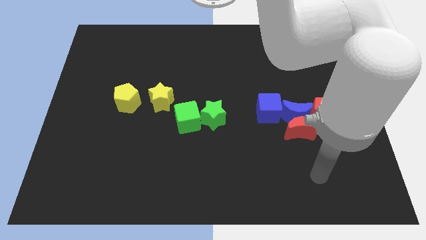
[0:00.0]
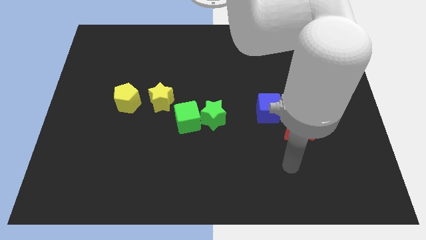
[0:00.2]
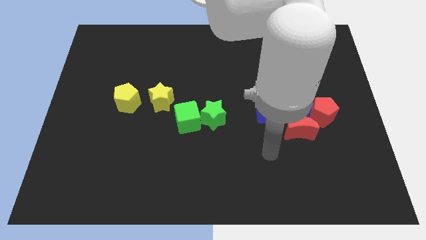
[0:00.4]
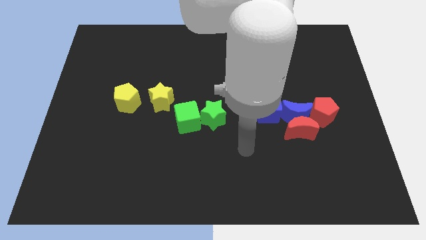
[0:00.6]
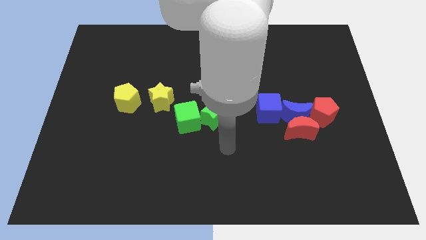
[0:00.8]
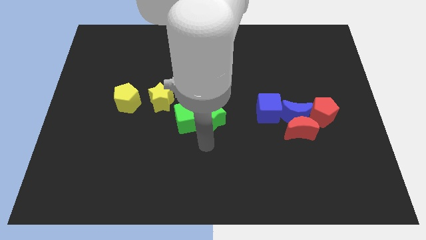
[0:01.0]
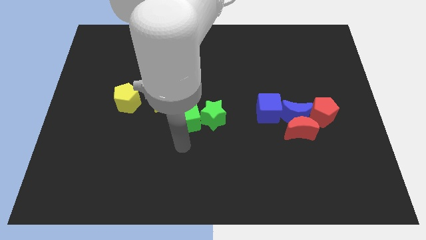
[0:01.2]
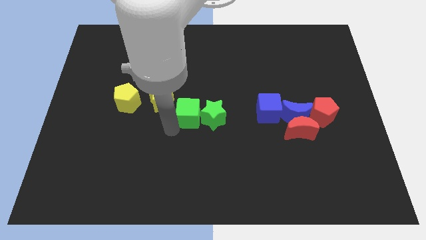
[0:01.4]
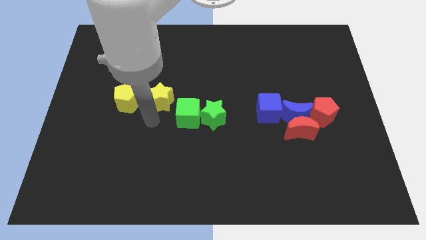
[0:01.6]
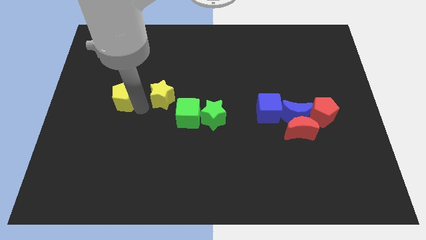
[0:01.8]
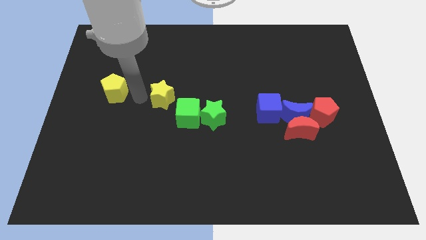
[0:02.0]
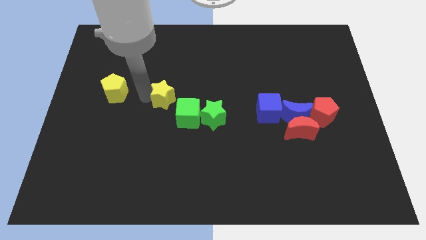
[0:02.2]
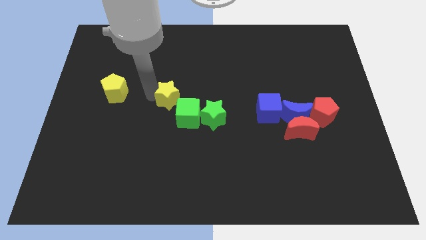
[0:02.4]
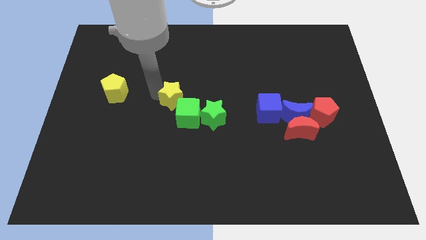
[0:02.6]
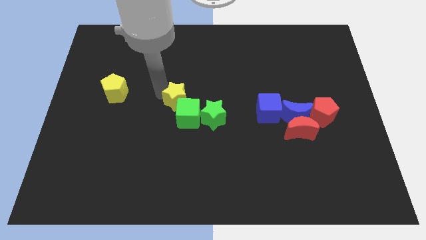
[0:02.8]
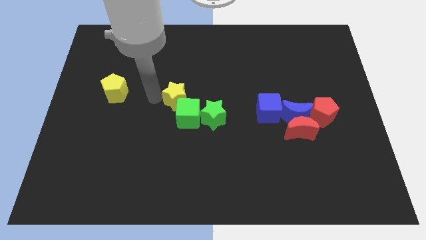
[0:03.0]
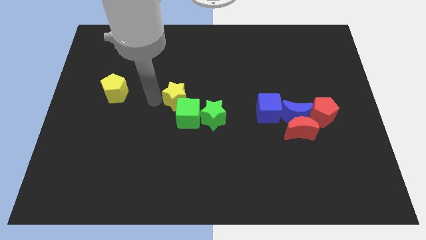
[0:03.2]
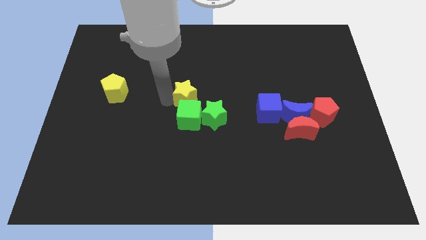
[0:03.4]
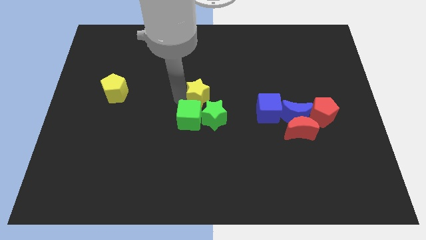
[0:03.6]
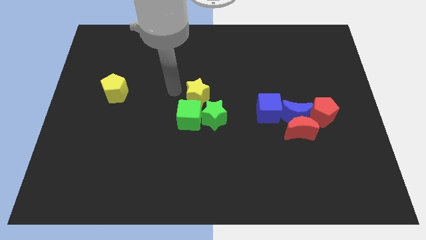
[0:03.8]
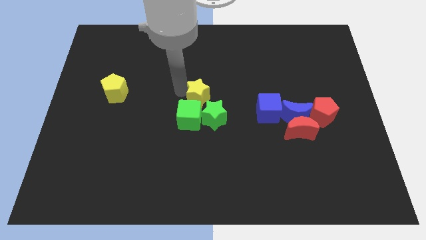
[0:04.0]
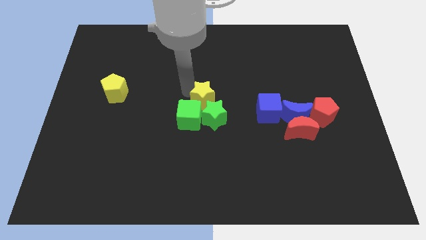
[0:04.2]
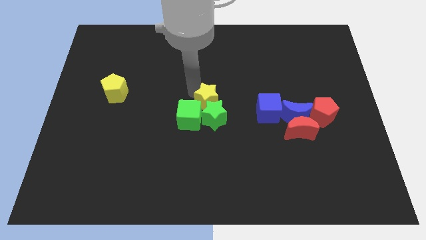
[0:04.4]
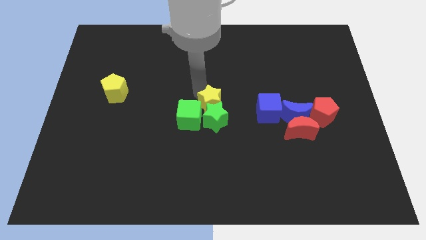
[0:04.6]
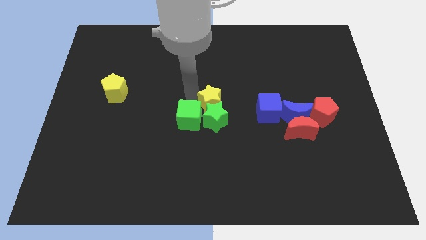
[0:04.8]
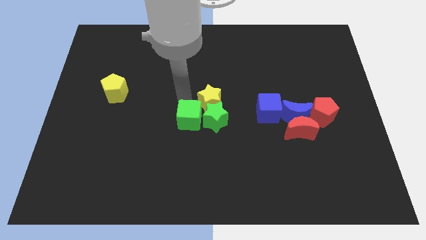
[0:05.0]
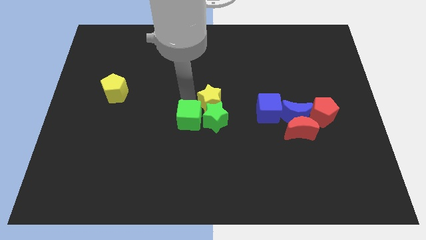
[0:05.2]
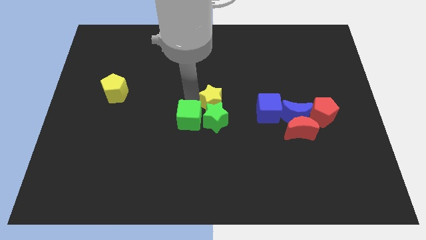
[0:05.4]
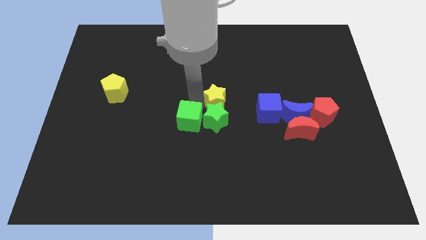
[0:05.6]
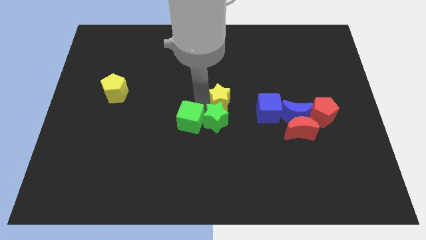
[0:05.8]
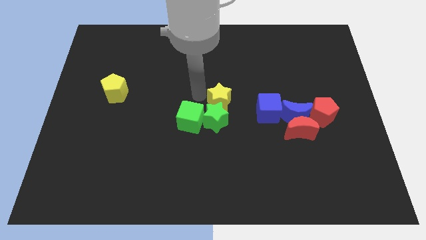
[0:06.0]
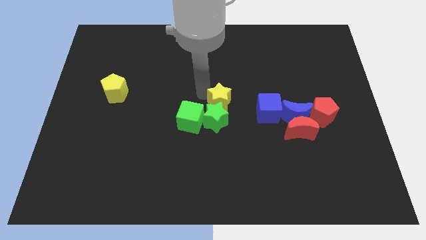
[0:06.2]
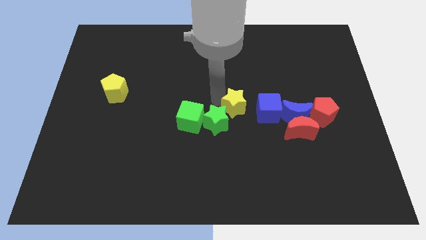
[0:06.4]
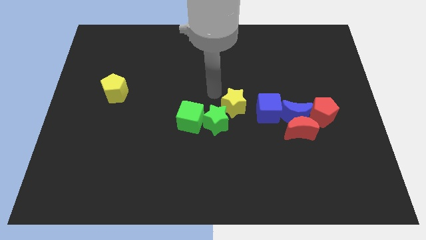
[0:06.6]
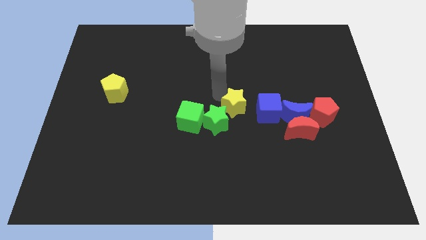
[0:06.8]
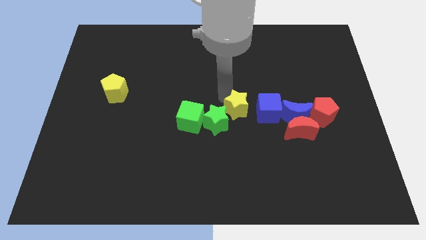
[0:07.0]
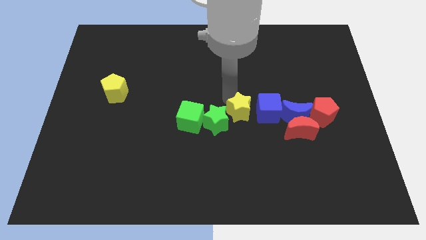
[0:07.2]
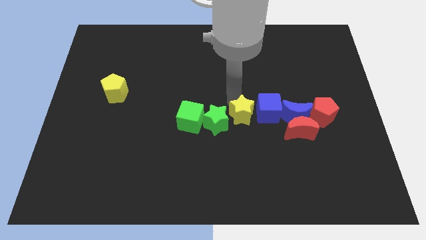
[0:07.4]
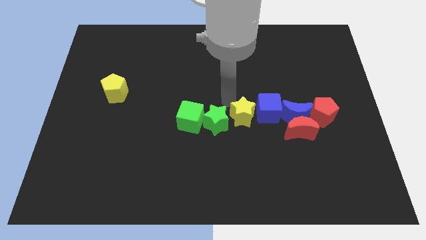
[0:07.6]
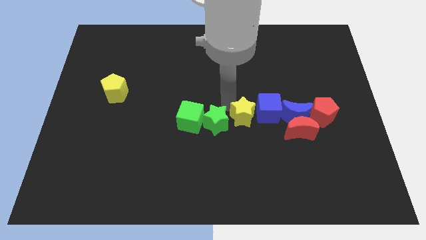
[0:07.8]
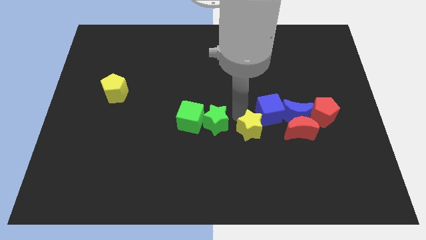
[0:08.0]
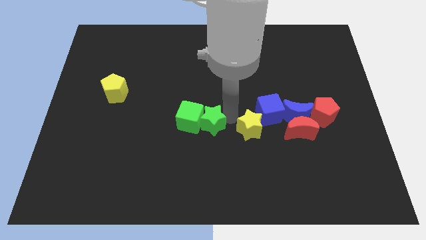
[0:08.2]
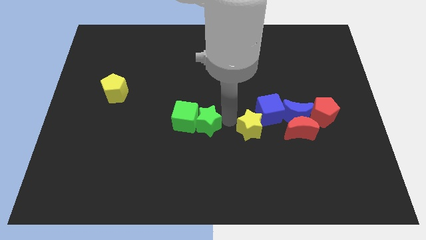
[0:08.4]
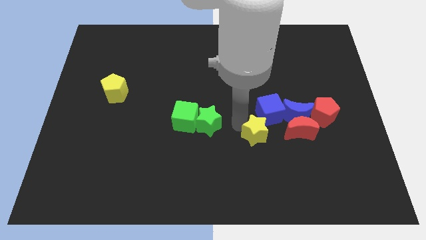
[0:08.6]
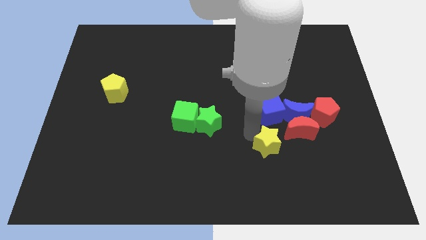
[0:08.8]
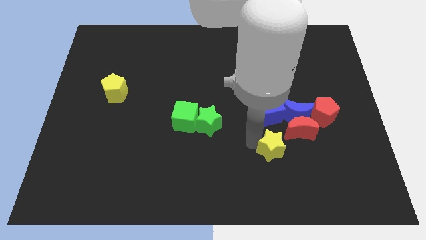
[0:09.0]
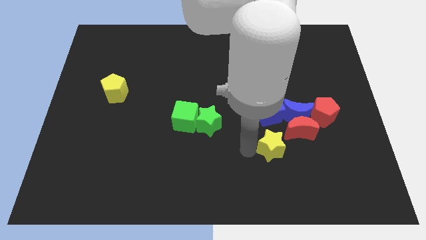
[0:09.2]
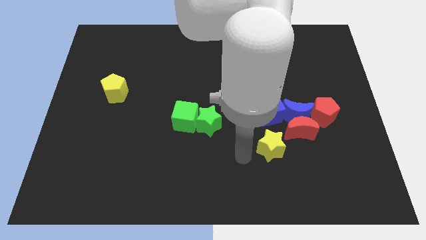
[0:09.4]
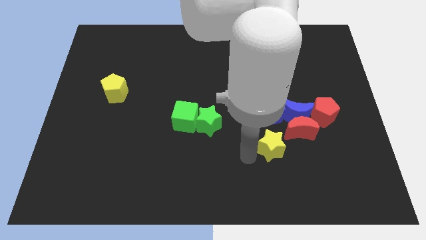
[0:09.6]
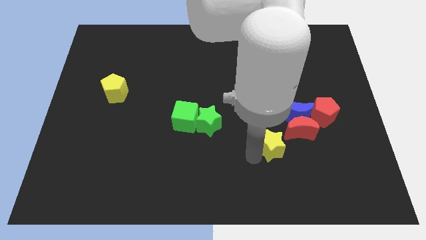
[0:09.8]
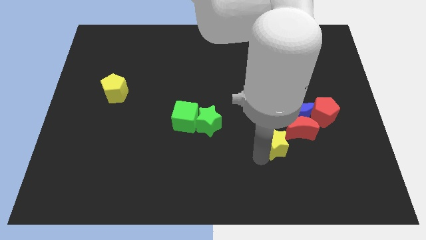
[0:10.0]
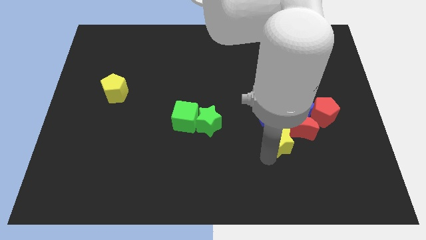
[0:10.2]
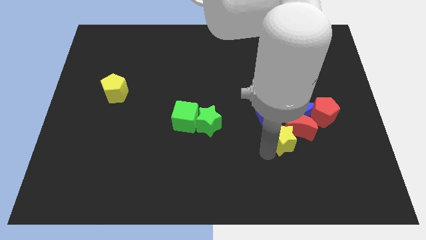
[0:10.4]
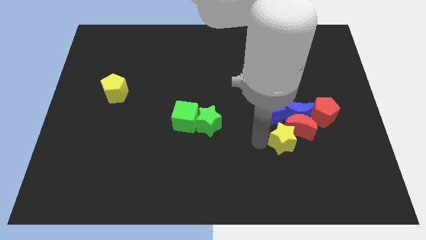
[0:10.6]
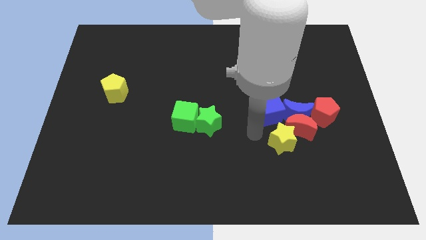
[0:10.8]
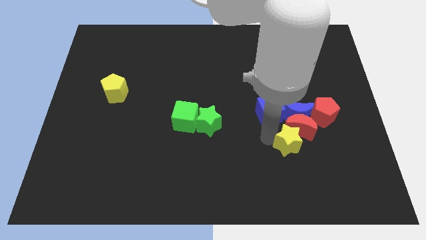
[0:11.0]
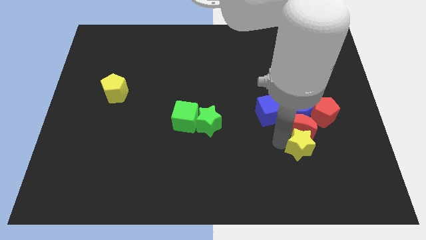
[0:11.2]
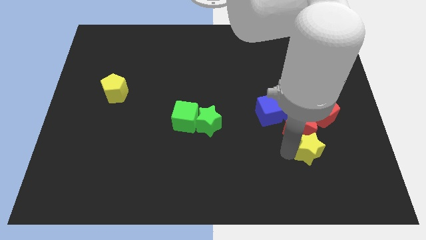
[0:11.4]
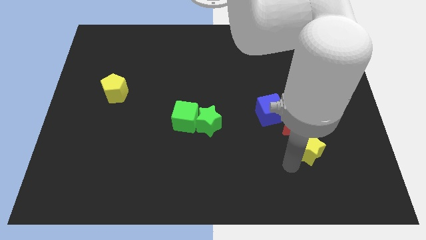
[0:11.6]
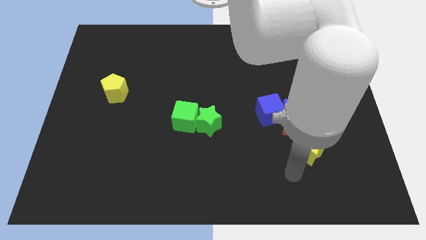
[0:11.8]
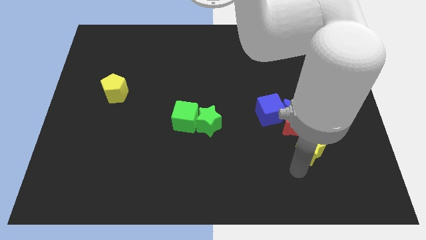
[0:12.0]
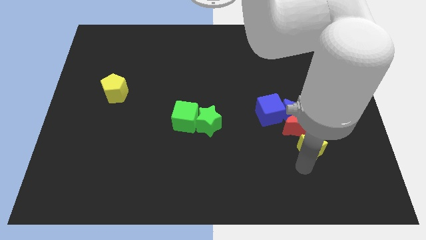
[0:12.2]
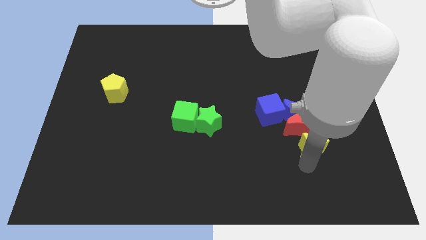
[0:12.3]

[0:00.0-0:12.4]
slide the yellow star to the bottom right of the blue moon

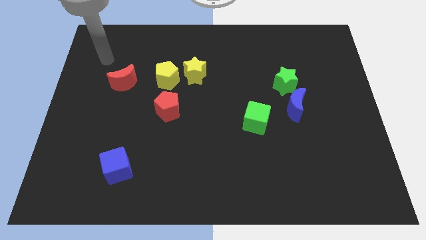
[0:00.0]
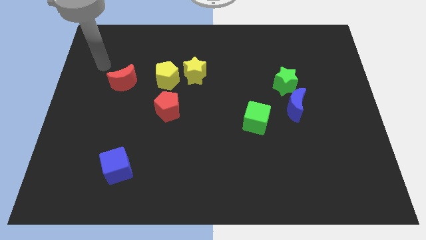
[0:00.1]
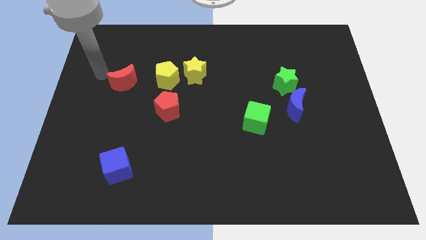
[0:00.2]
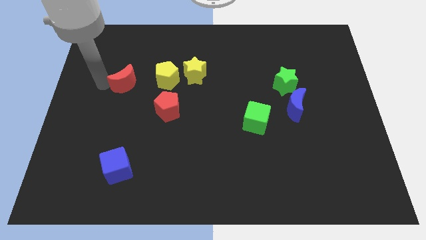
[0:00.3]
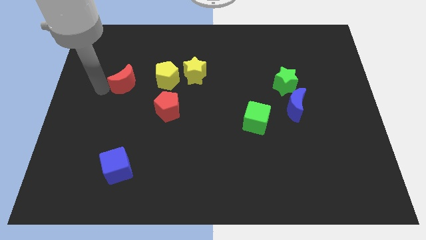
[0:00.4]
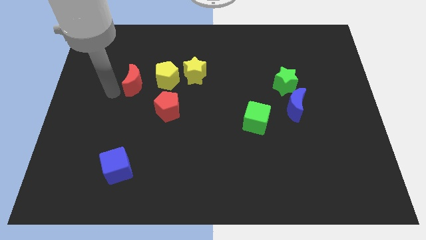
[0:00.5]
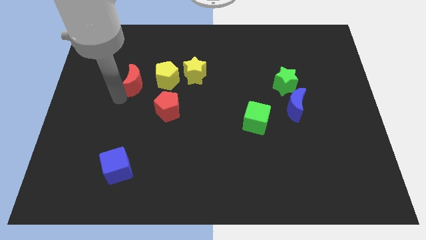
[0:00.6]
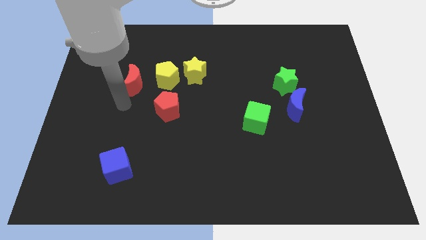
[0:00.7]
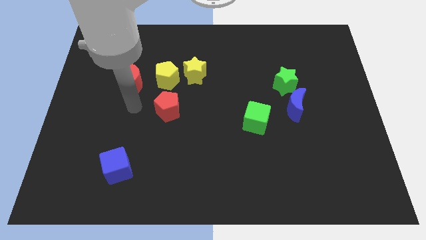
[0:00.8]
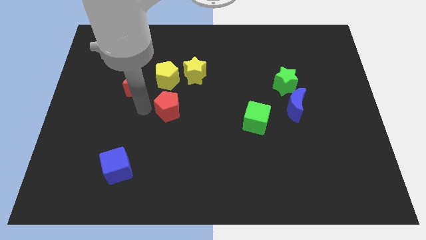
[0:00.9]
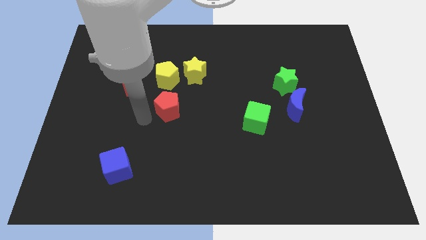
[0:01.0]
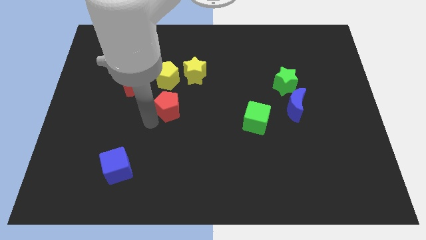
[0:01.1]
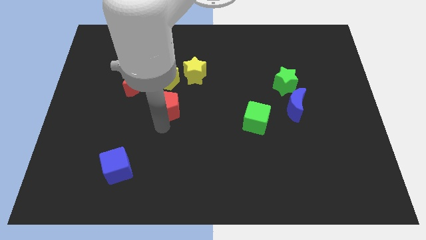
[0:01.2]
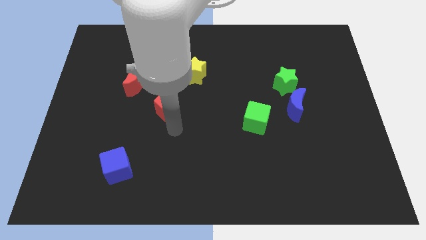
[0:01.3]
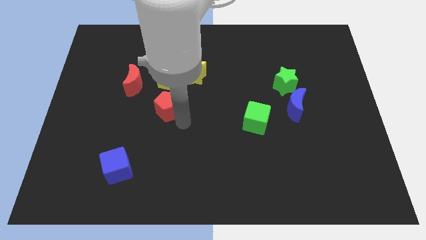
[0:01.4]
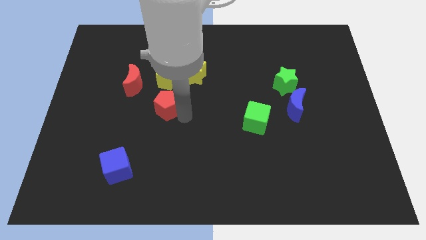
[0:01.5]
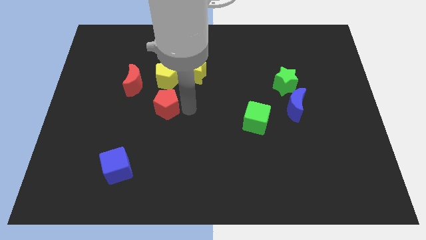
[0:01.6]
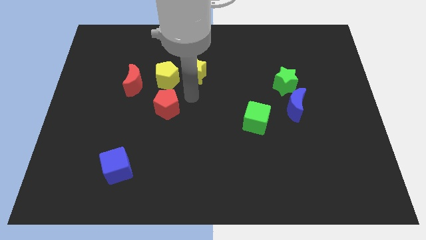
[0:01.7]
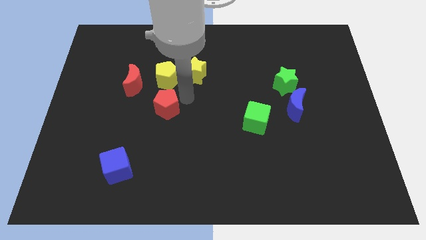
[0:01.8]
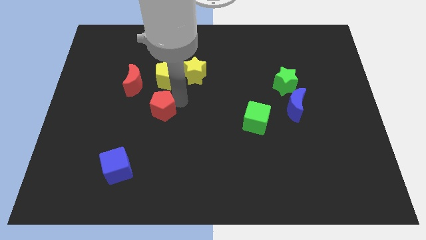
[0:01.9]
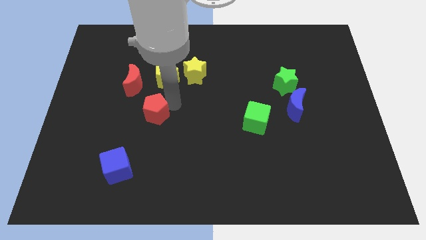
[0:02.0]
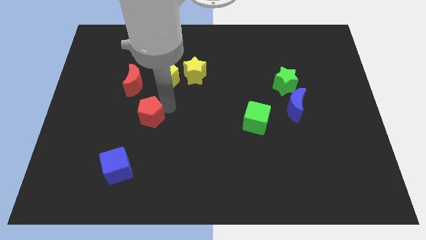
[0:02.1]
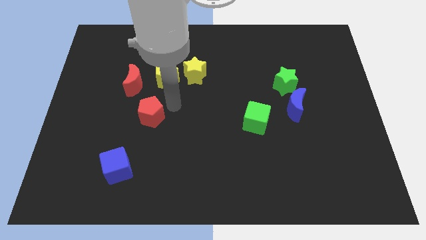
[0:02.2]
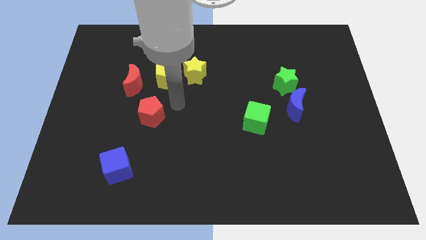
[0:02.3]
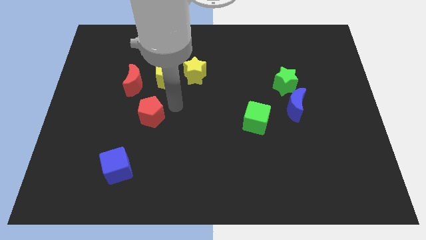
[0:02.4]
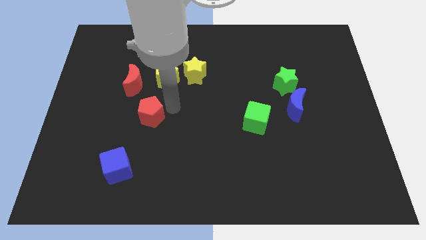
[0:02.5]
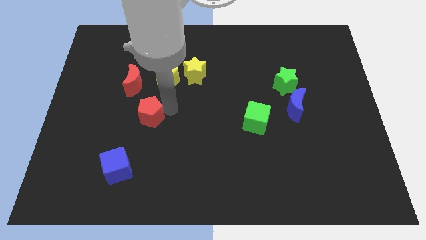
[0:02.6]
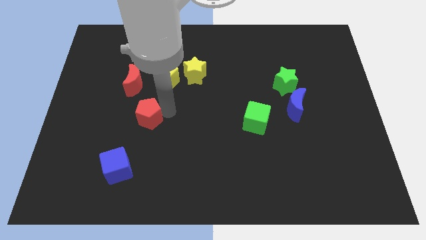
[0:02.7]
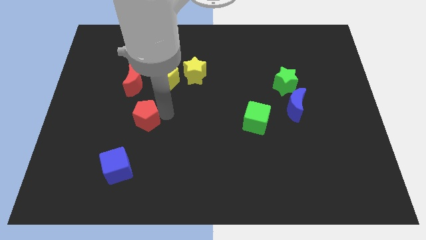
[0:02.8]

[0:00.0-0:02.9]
push the red pentagon to the top side of the blue cube
